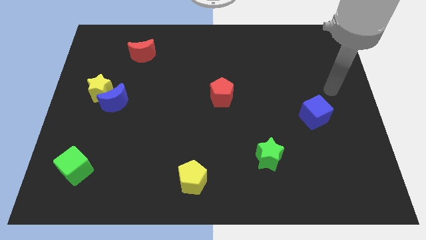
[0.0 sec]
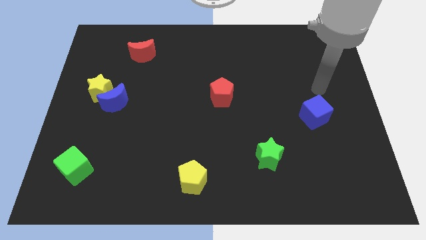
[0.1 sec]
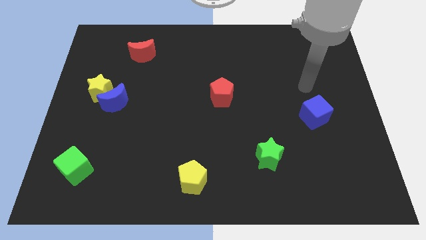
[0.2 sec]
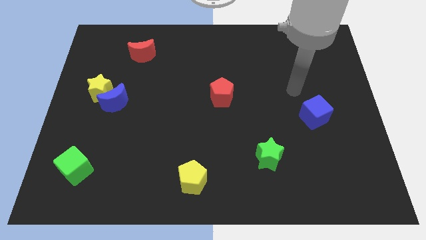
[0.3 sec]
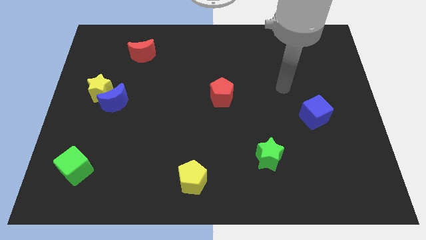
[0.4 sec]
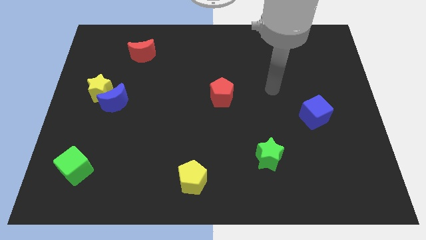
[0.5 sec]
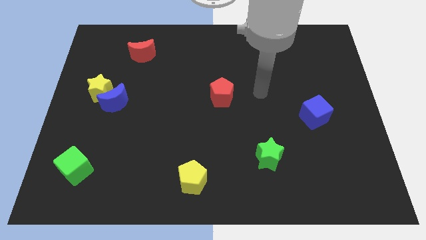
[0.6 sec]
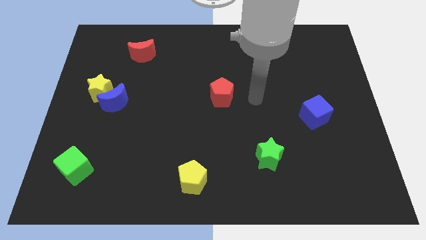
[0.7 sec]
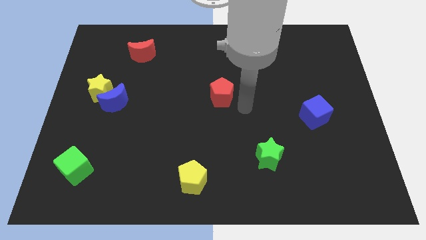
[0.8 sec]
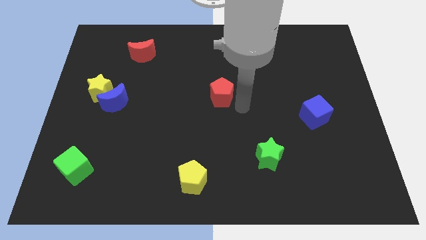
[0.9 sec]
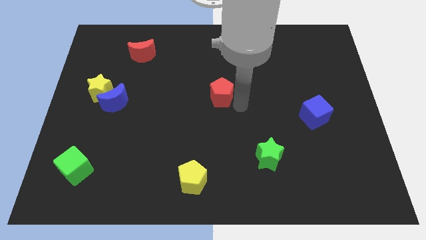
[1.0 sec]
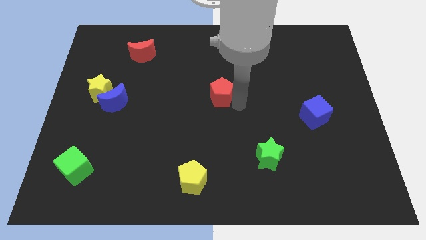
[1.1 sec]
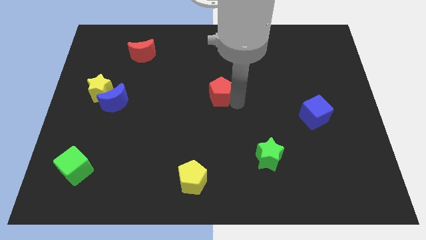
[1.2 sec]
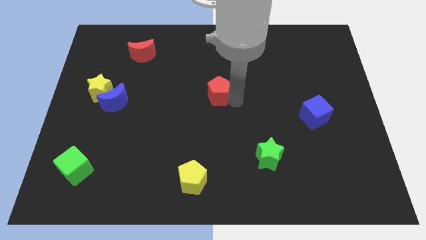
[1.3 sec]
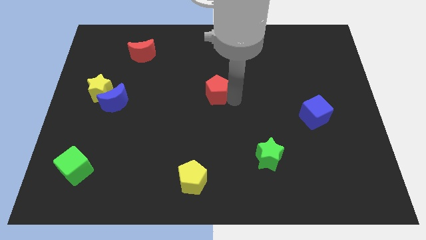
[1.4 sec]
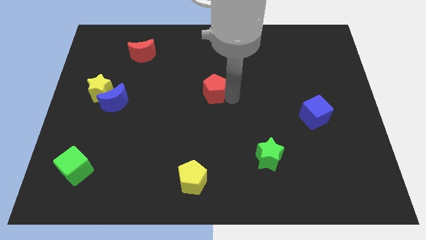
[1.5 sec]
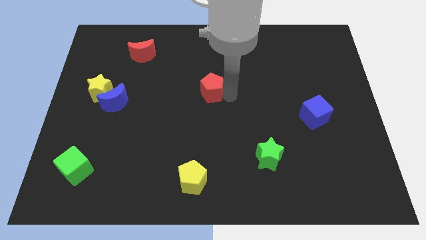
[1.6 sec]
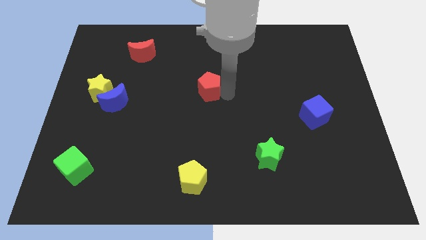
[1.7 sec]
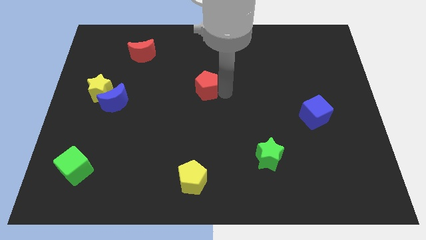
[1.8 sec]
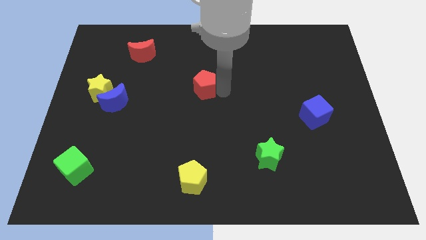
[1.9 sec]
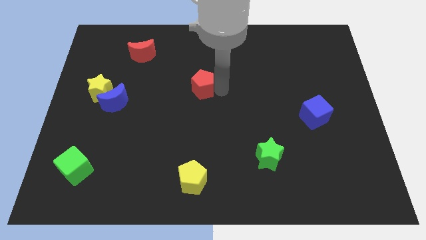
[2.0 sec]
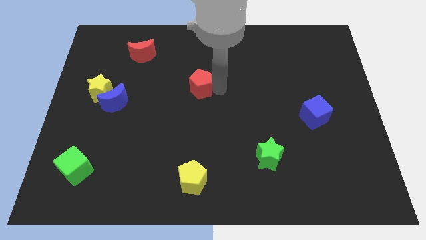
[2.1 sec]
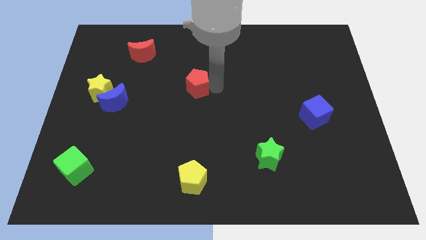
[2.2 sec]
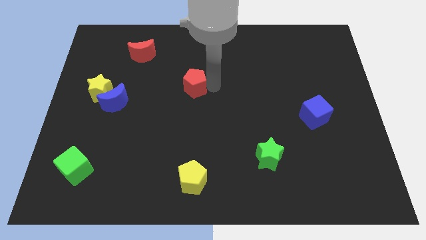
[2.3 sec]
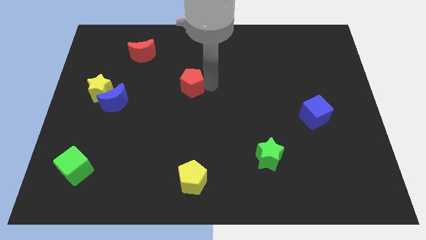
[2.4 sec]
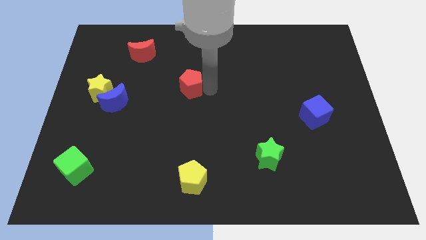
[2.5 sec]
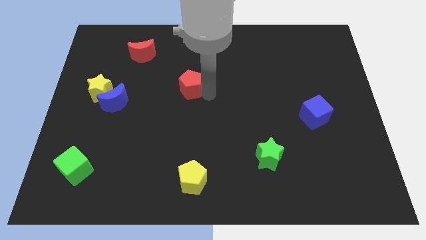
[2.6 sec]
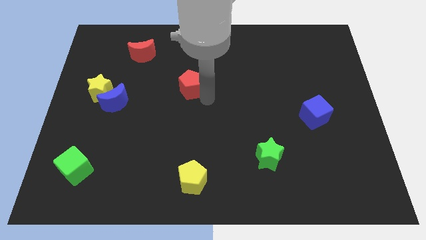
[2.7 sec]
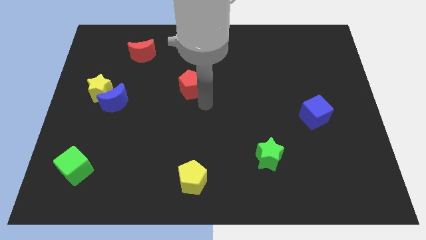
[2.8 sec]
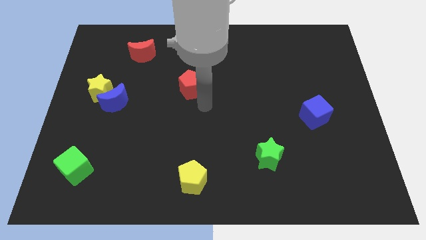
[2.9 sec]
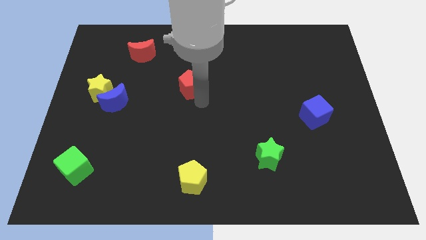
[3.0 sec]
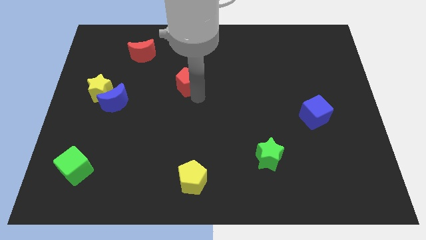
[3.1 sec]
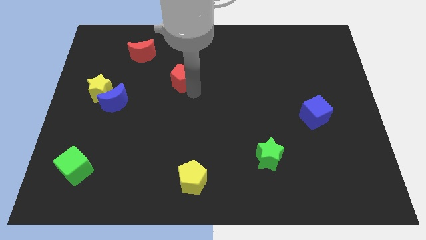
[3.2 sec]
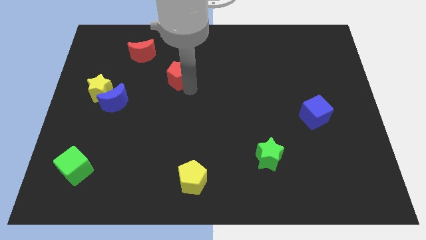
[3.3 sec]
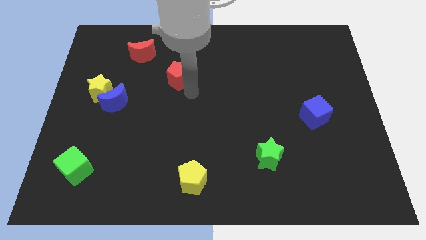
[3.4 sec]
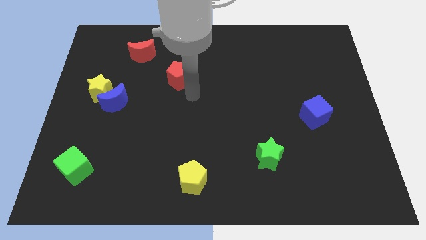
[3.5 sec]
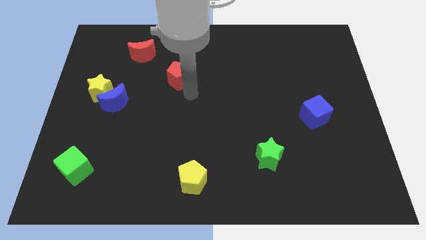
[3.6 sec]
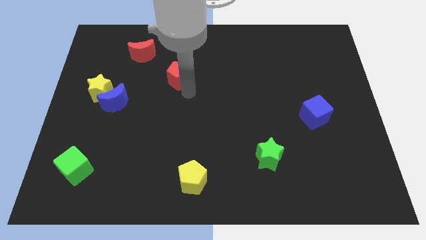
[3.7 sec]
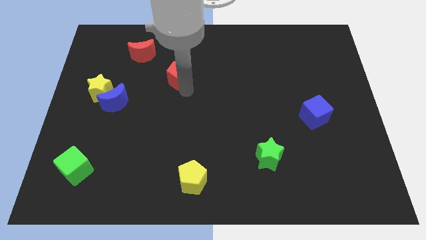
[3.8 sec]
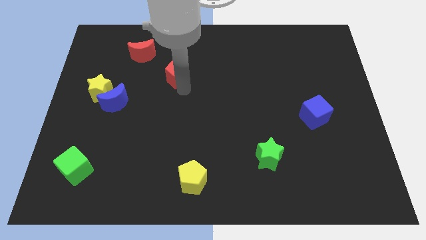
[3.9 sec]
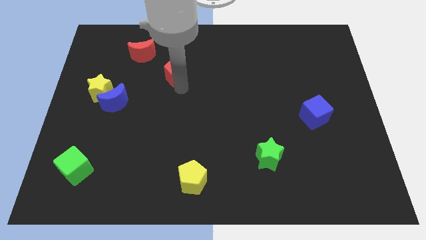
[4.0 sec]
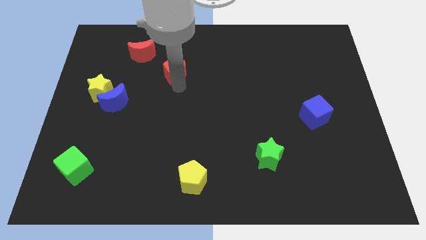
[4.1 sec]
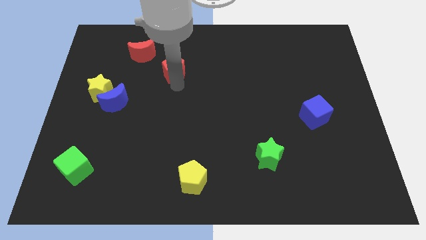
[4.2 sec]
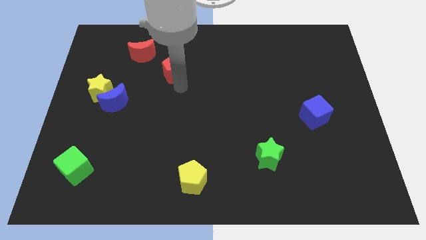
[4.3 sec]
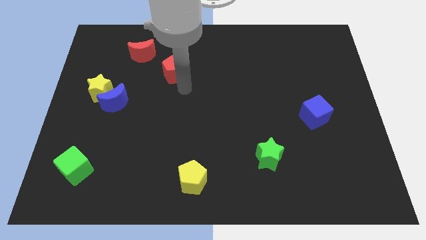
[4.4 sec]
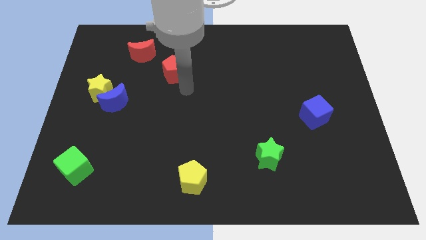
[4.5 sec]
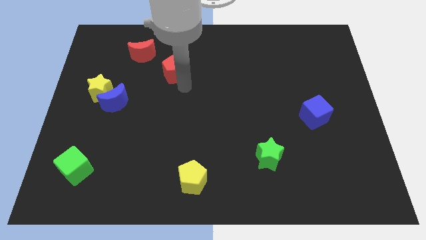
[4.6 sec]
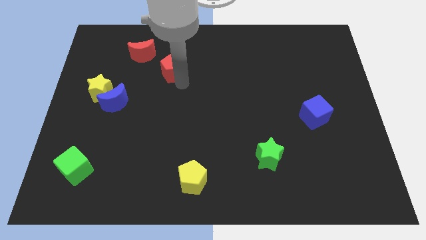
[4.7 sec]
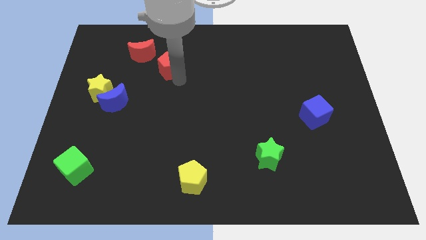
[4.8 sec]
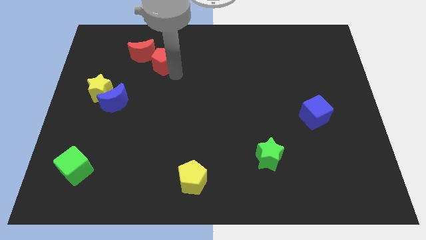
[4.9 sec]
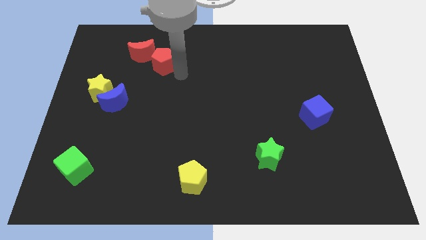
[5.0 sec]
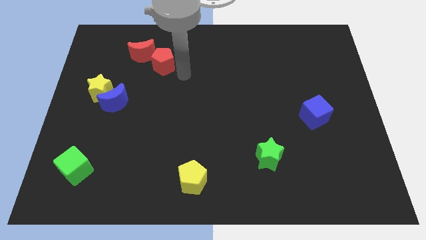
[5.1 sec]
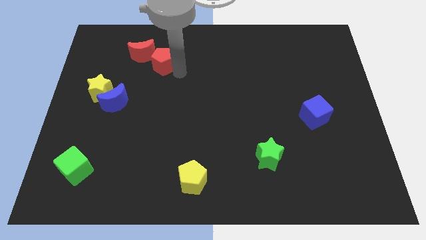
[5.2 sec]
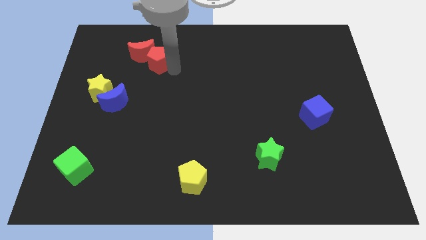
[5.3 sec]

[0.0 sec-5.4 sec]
slide the red pentagon to the red moon

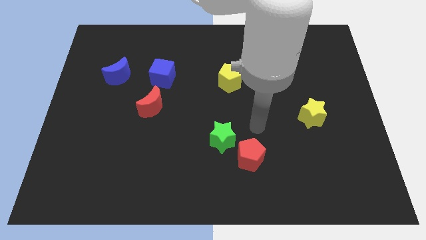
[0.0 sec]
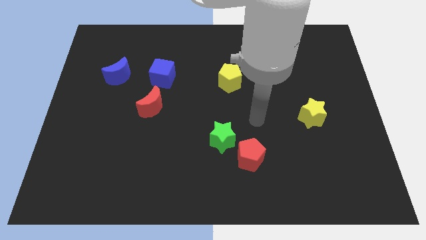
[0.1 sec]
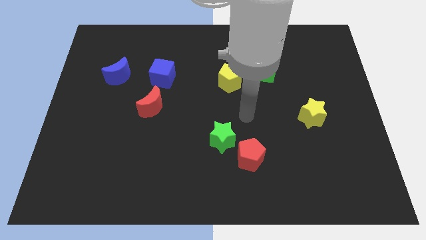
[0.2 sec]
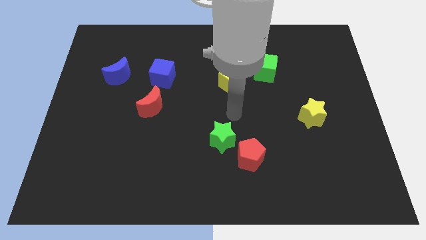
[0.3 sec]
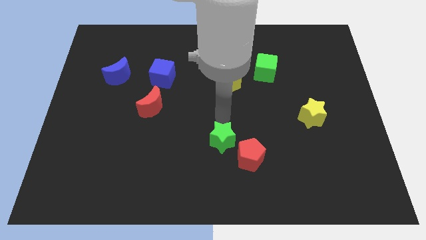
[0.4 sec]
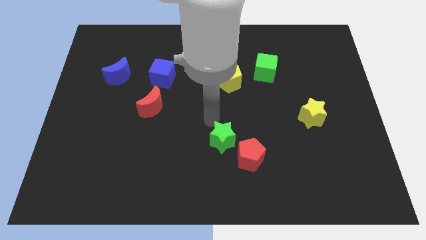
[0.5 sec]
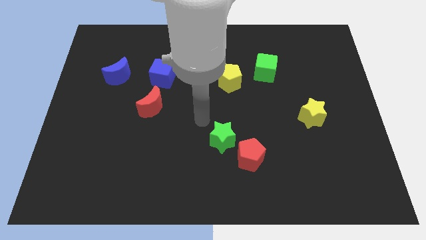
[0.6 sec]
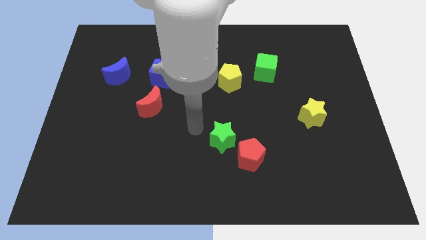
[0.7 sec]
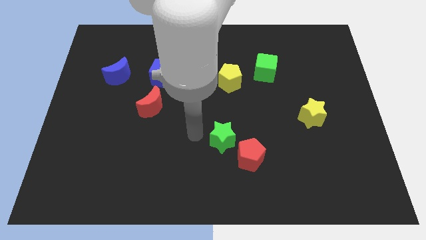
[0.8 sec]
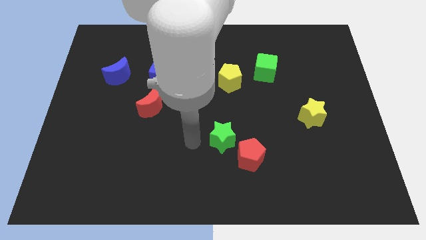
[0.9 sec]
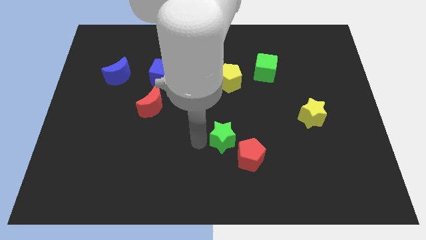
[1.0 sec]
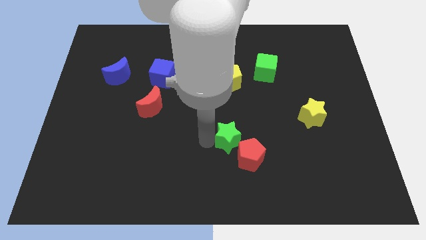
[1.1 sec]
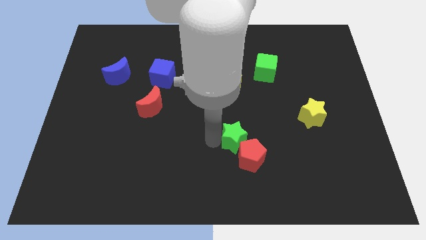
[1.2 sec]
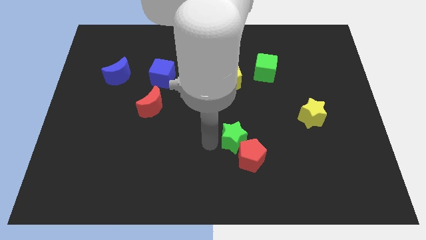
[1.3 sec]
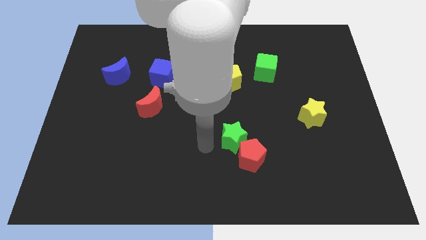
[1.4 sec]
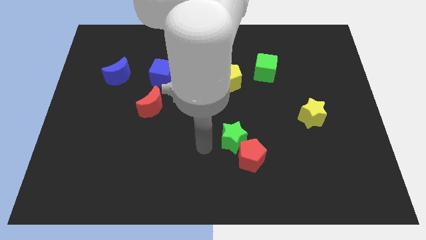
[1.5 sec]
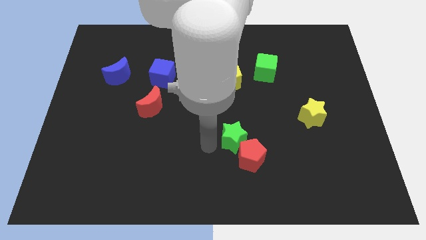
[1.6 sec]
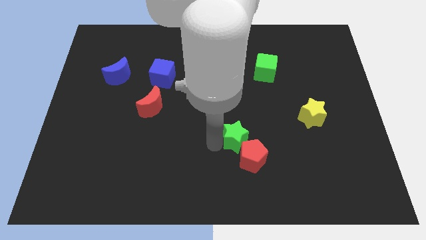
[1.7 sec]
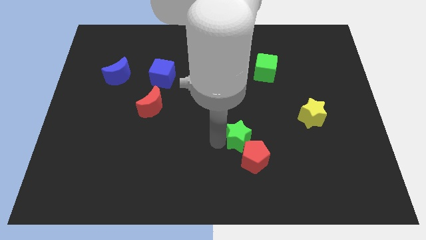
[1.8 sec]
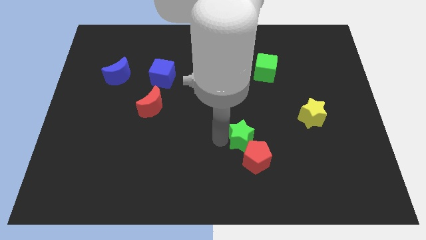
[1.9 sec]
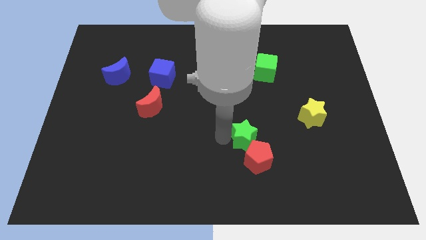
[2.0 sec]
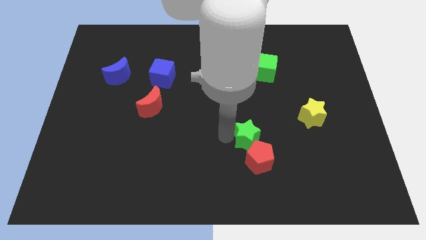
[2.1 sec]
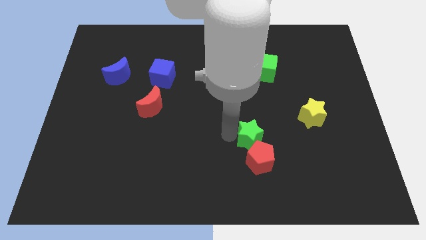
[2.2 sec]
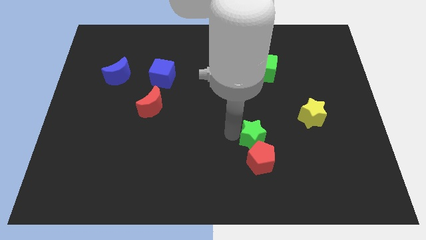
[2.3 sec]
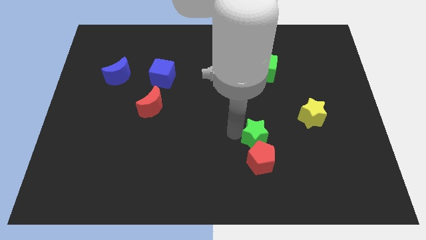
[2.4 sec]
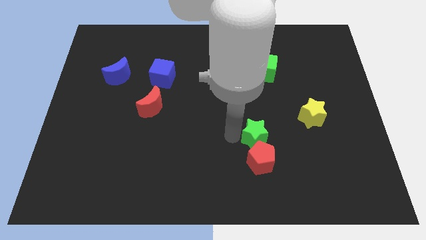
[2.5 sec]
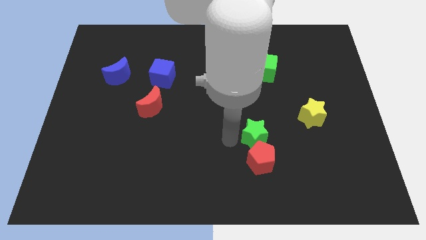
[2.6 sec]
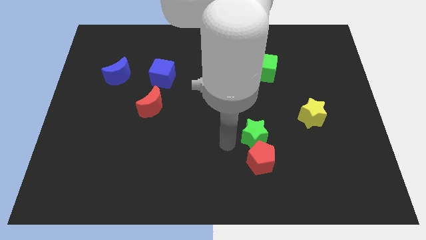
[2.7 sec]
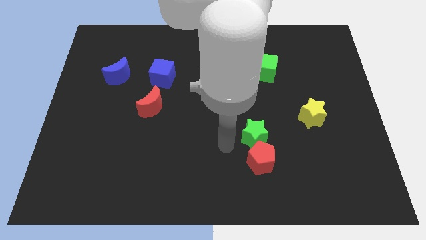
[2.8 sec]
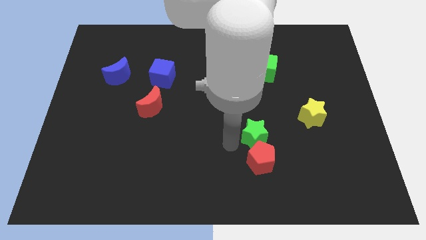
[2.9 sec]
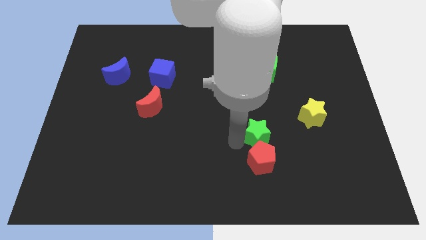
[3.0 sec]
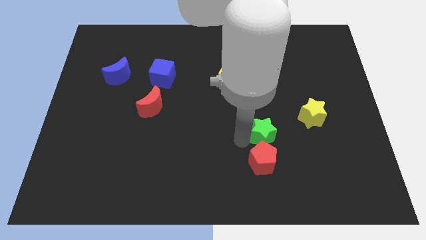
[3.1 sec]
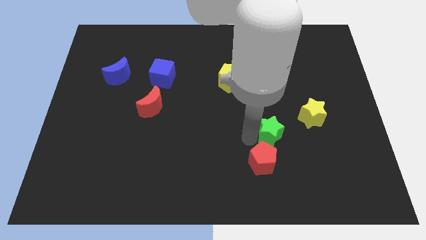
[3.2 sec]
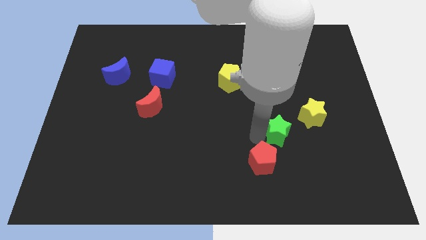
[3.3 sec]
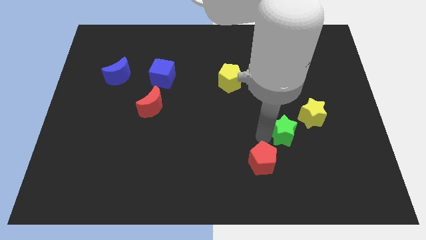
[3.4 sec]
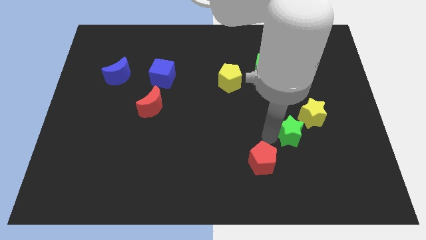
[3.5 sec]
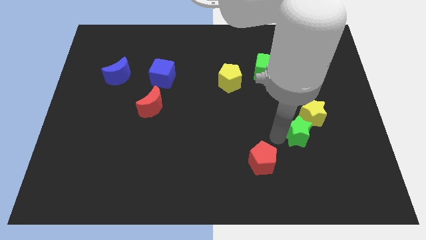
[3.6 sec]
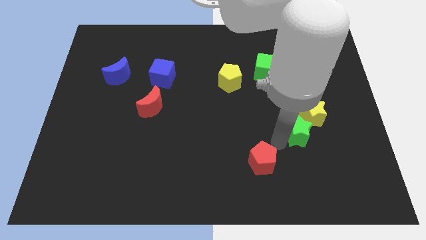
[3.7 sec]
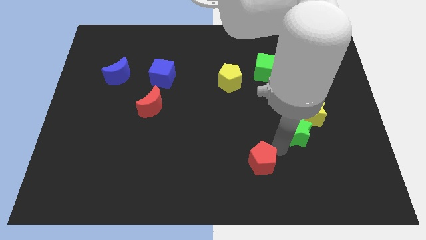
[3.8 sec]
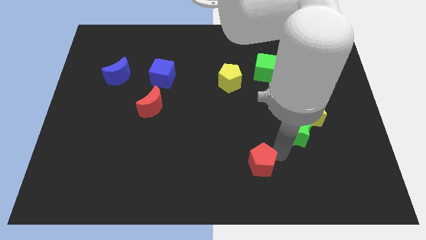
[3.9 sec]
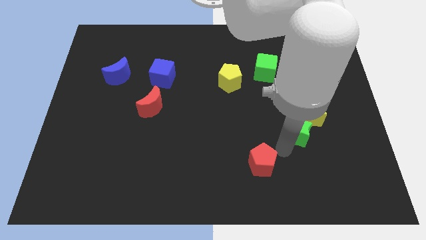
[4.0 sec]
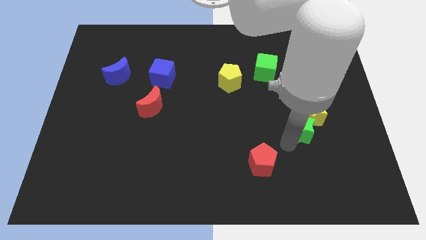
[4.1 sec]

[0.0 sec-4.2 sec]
move the green star close to the yellow star
